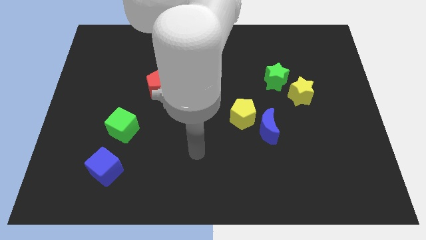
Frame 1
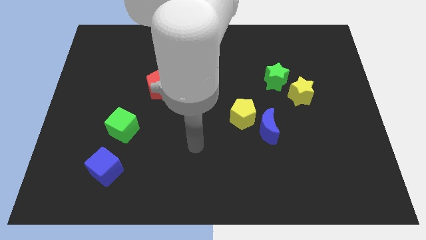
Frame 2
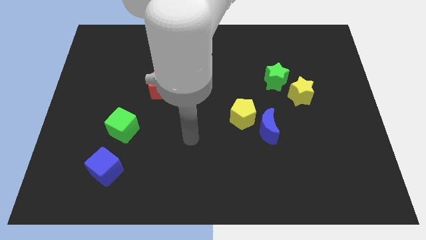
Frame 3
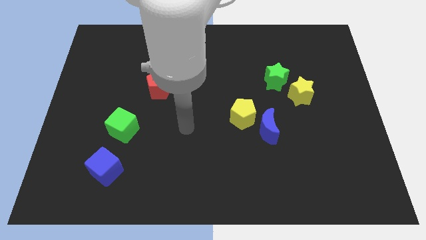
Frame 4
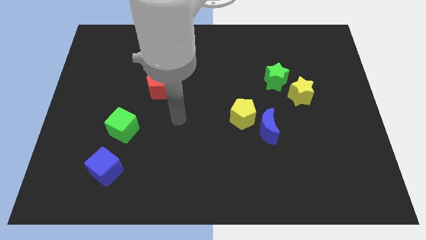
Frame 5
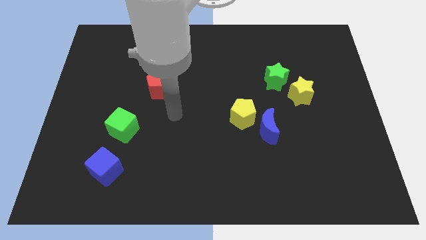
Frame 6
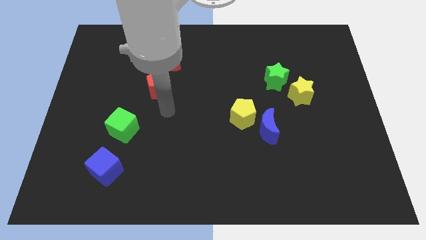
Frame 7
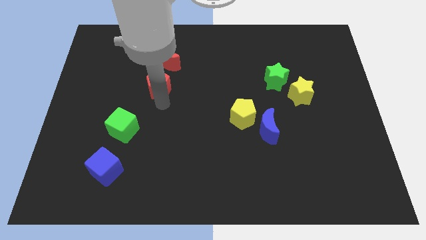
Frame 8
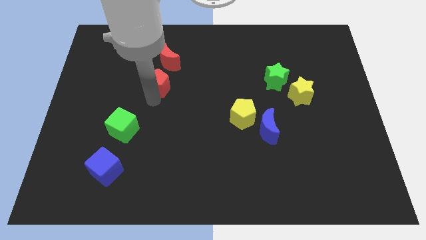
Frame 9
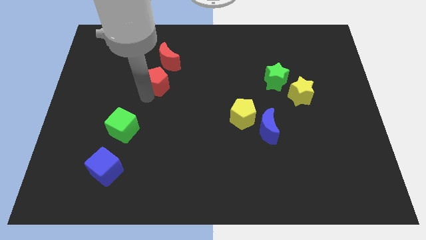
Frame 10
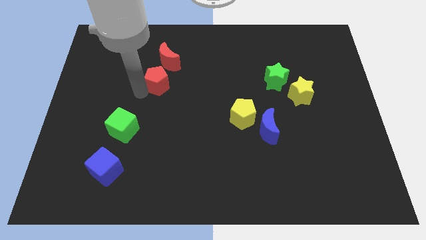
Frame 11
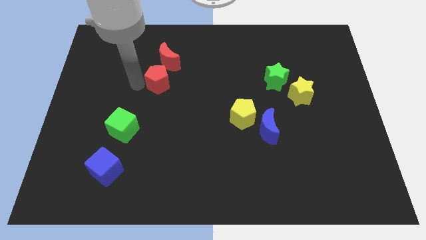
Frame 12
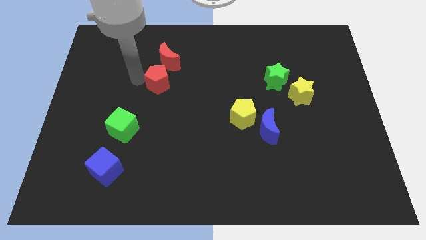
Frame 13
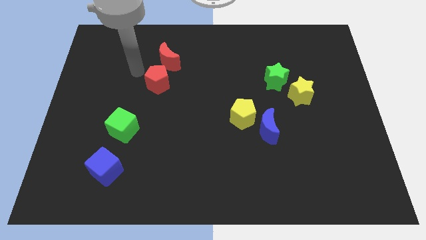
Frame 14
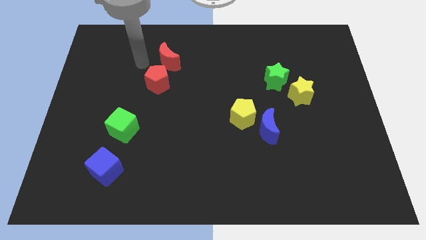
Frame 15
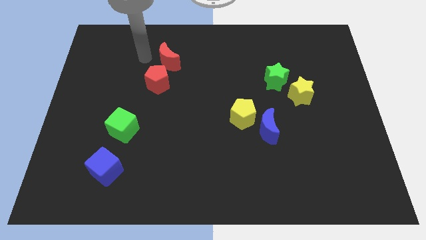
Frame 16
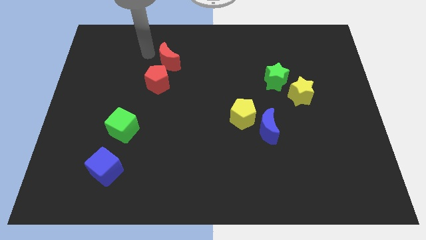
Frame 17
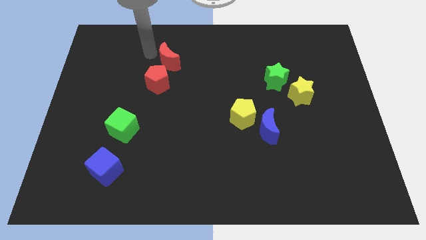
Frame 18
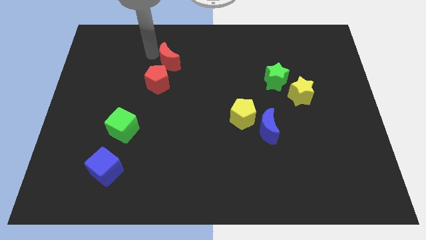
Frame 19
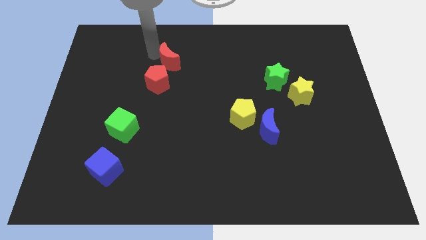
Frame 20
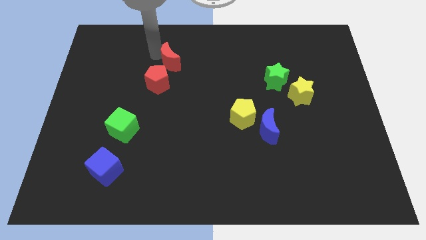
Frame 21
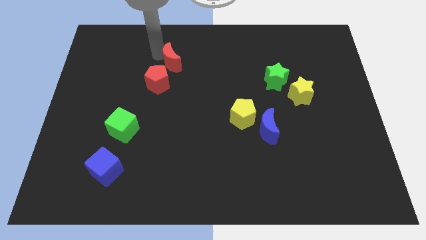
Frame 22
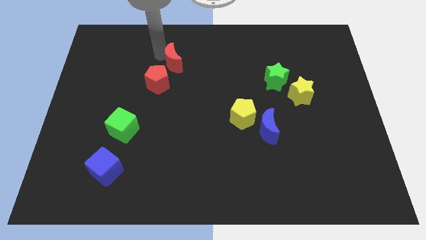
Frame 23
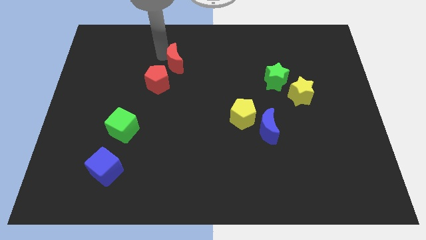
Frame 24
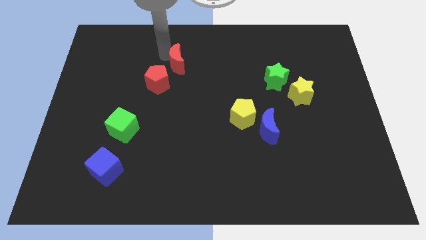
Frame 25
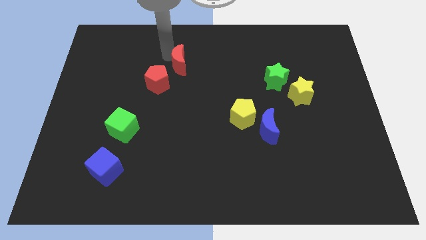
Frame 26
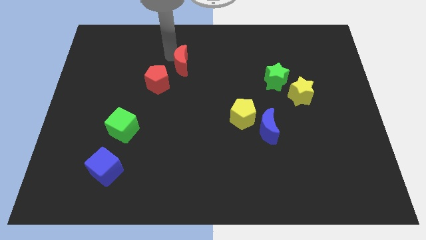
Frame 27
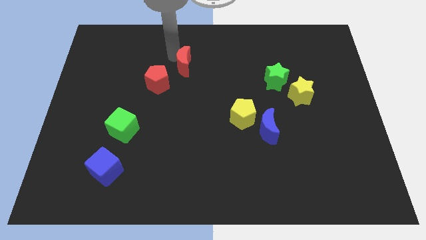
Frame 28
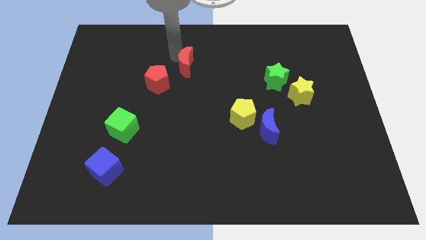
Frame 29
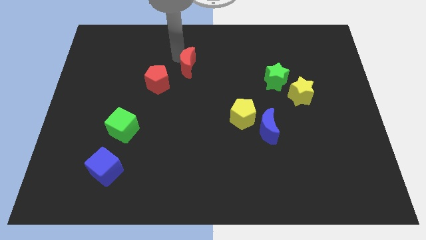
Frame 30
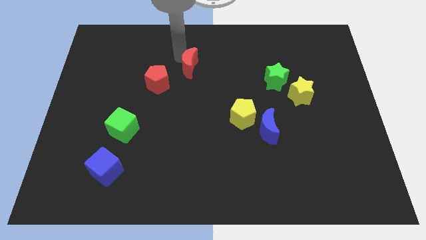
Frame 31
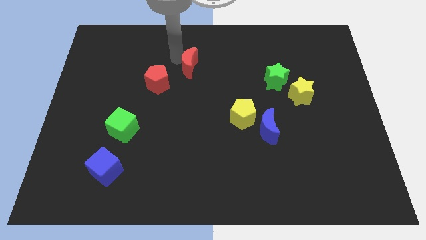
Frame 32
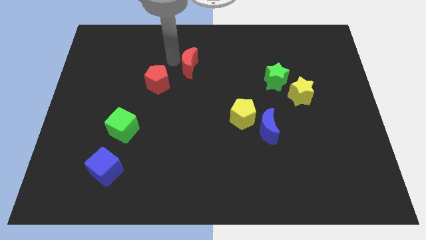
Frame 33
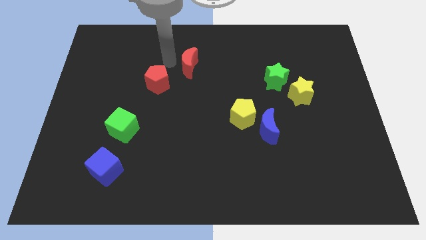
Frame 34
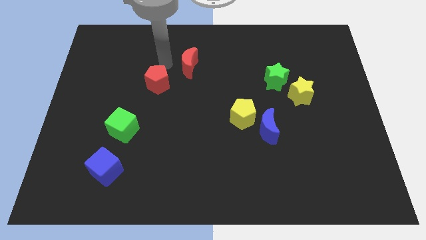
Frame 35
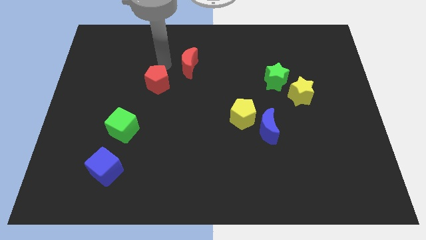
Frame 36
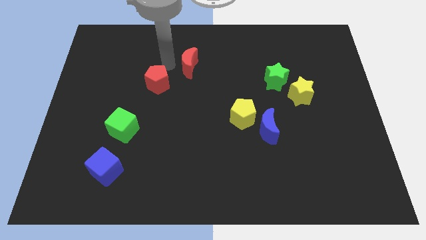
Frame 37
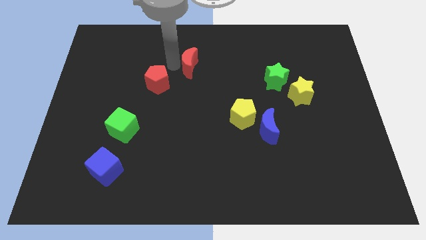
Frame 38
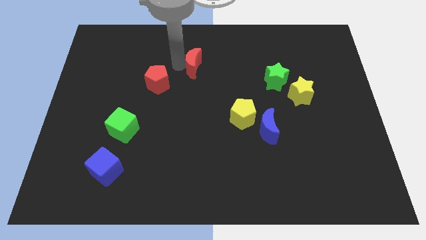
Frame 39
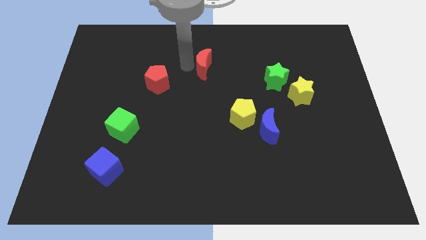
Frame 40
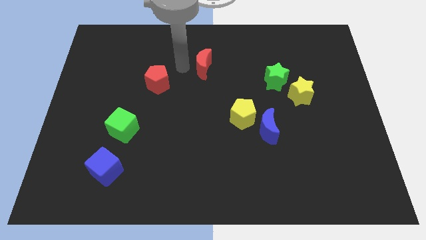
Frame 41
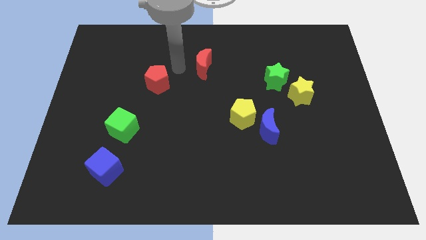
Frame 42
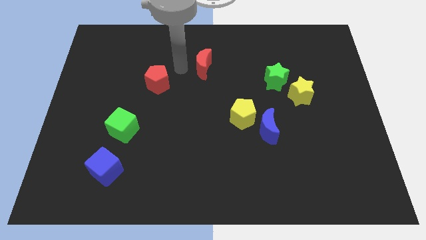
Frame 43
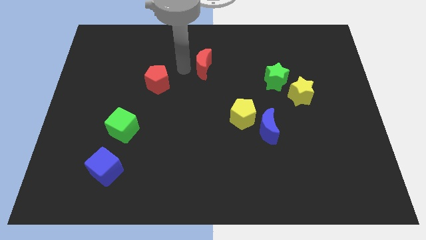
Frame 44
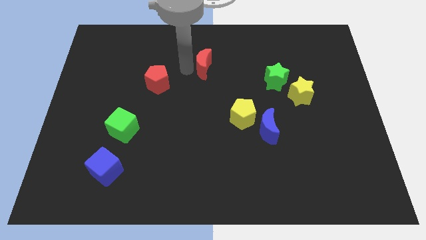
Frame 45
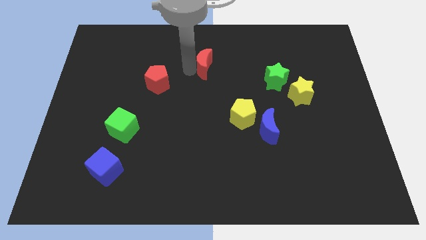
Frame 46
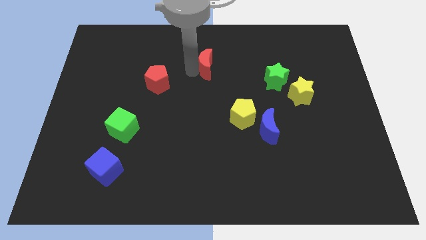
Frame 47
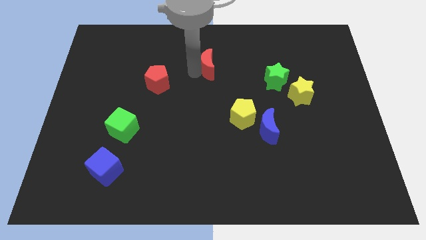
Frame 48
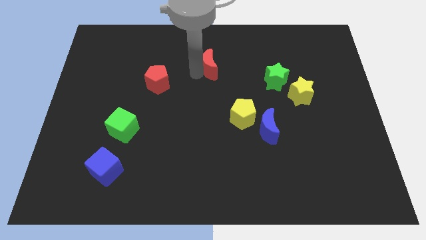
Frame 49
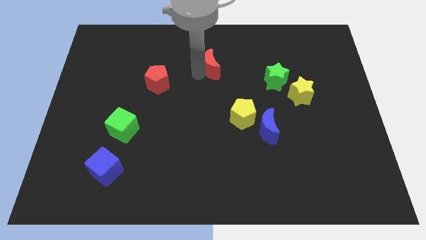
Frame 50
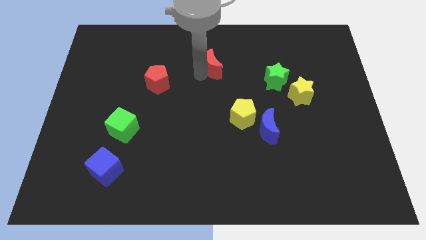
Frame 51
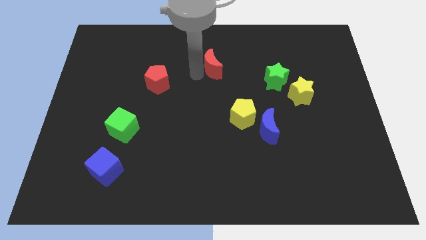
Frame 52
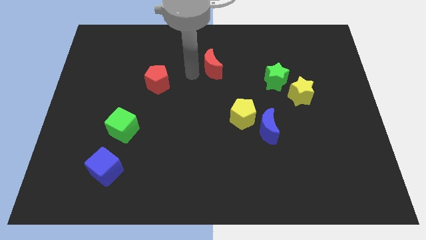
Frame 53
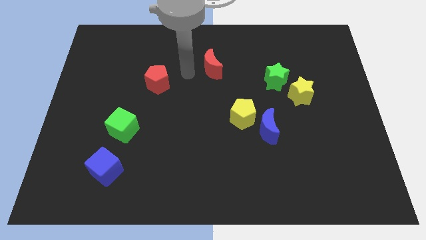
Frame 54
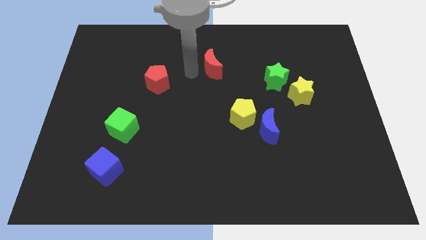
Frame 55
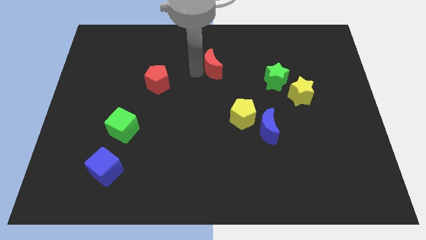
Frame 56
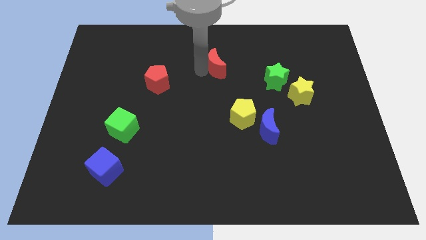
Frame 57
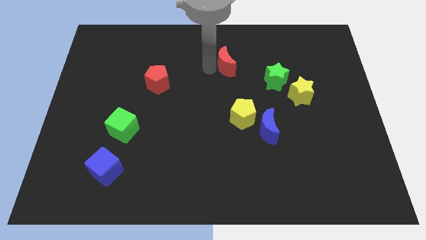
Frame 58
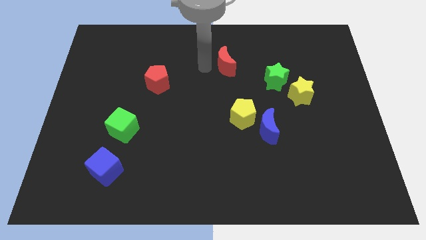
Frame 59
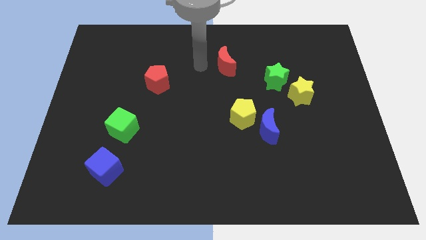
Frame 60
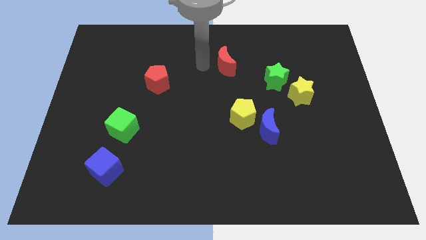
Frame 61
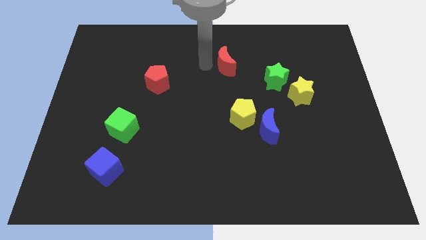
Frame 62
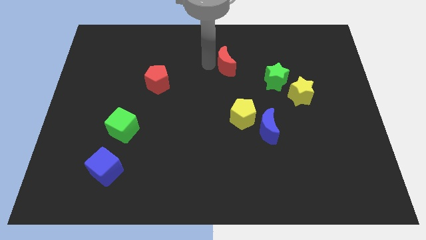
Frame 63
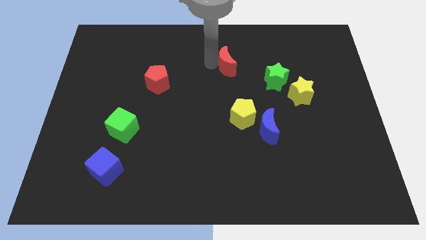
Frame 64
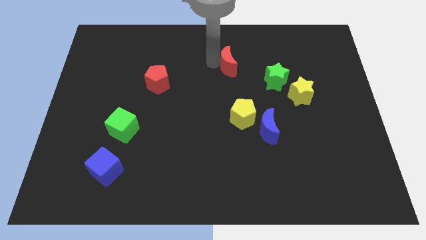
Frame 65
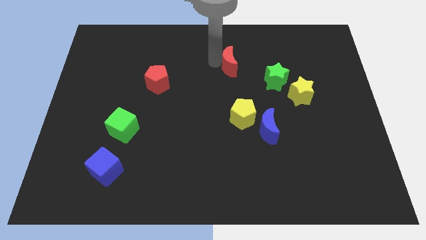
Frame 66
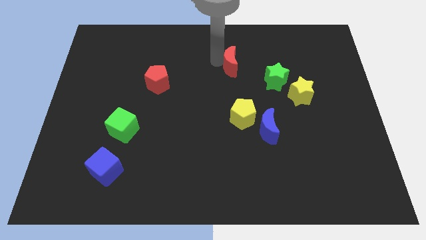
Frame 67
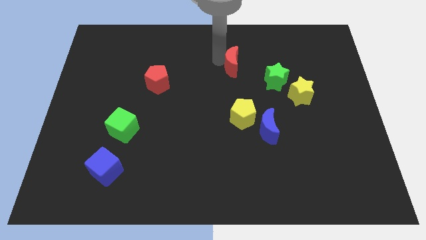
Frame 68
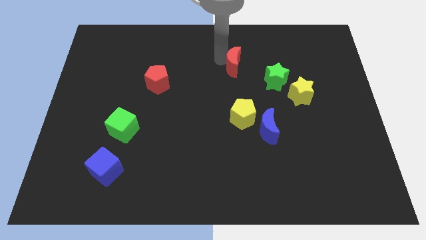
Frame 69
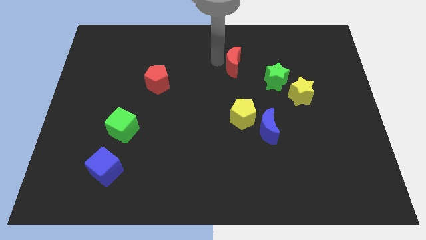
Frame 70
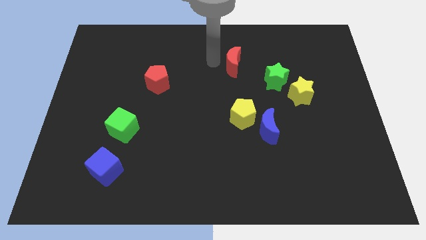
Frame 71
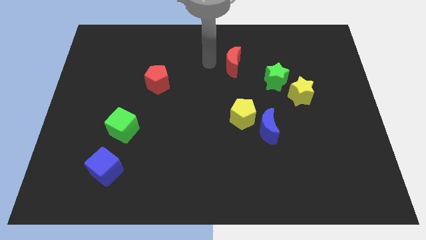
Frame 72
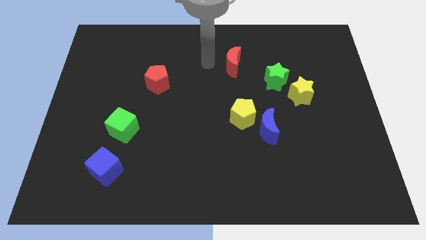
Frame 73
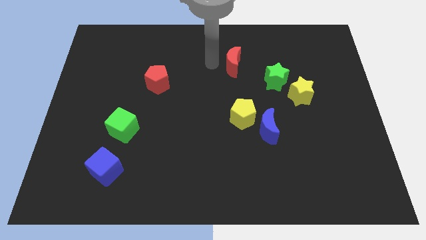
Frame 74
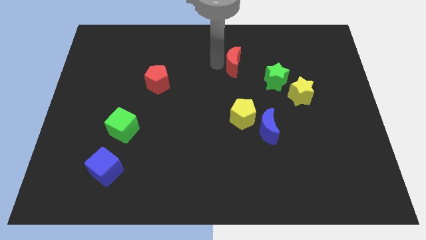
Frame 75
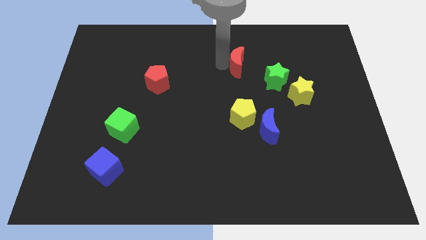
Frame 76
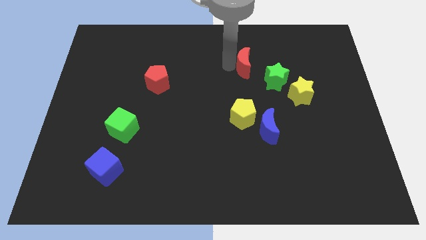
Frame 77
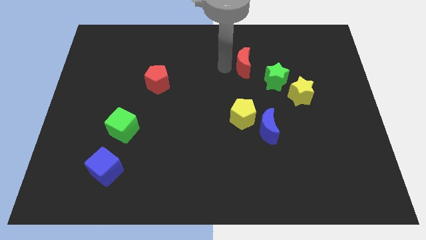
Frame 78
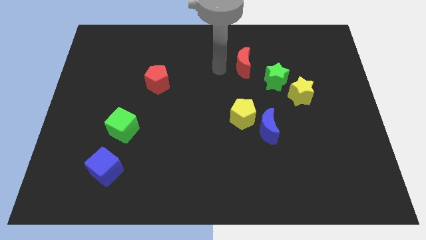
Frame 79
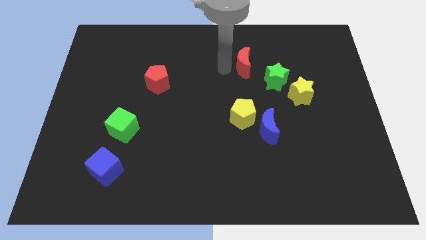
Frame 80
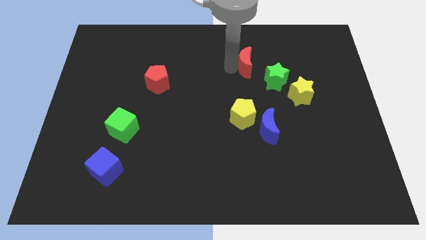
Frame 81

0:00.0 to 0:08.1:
push the red moon right
